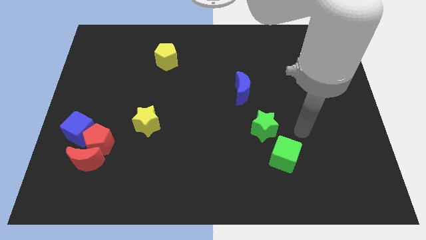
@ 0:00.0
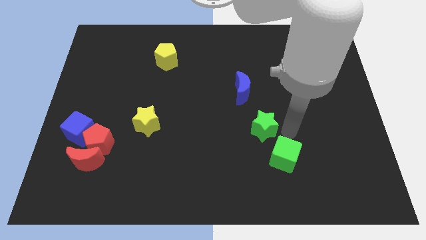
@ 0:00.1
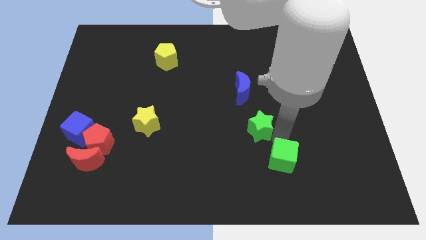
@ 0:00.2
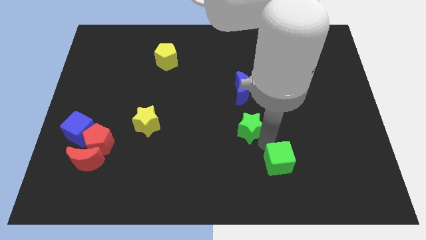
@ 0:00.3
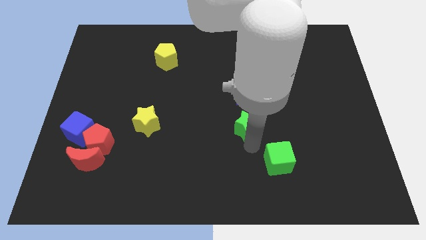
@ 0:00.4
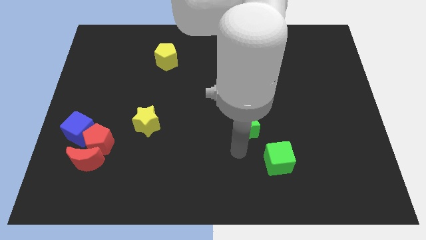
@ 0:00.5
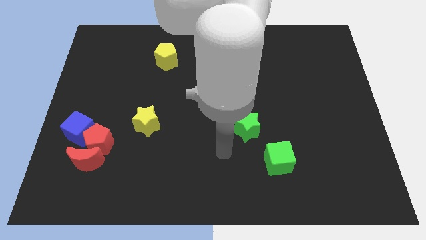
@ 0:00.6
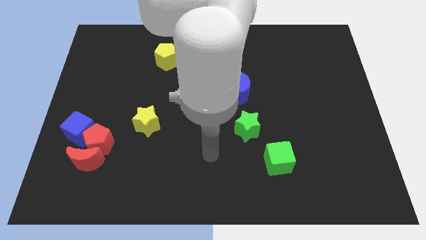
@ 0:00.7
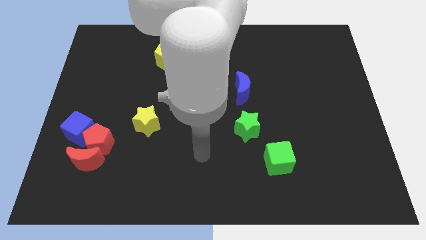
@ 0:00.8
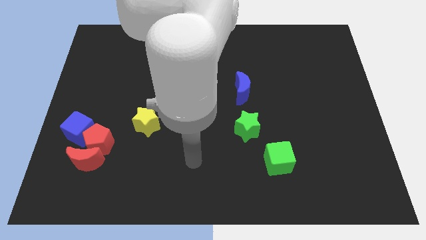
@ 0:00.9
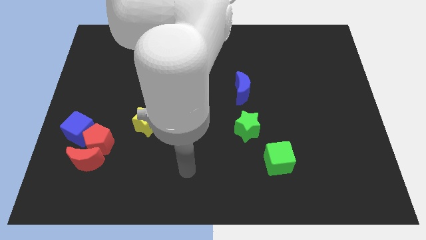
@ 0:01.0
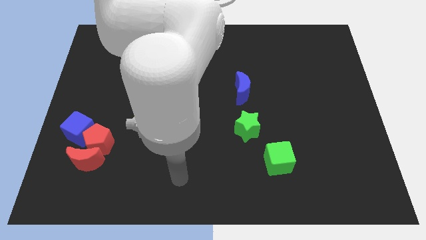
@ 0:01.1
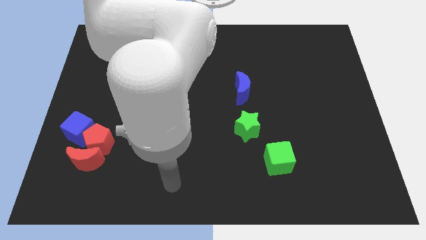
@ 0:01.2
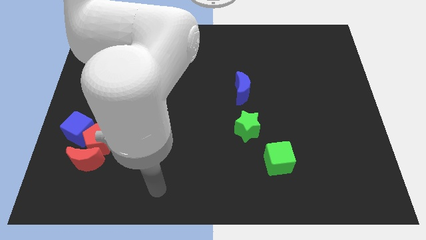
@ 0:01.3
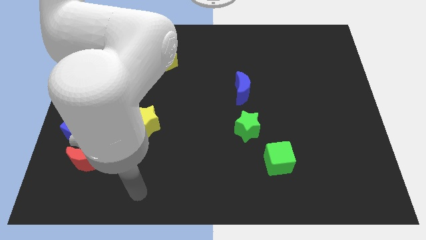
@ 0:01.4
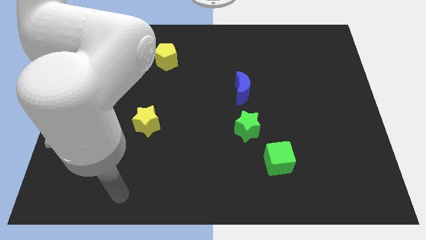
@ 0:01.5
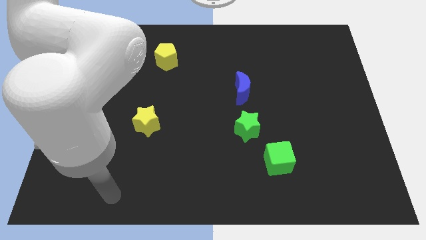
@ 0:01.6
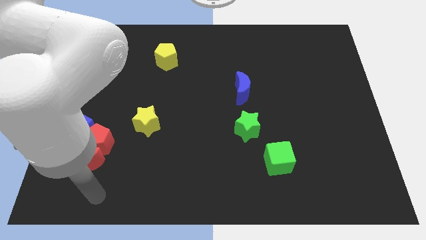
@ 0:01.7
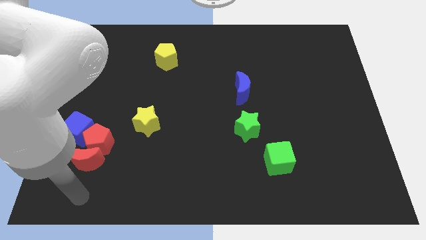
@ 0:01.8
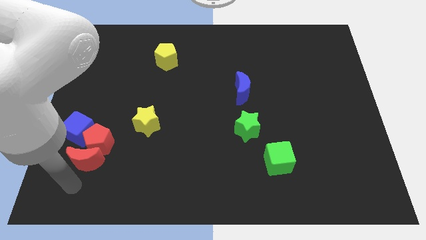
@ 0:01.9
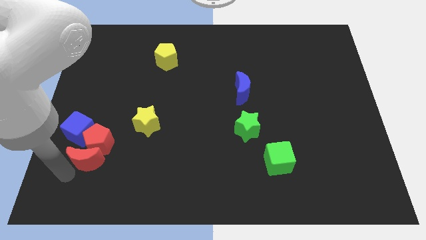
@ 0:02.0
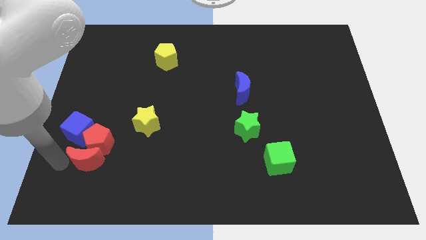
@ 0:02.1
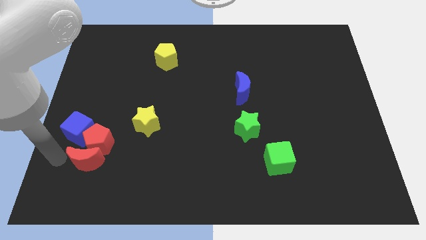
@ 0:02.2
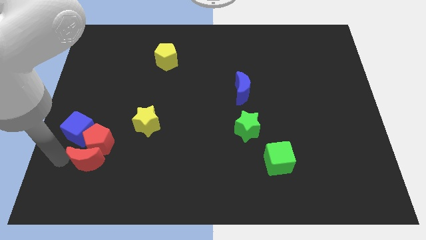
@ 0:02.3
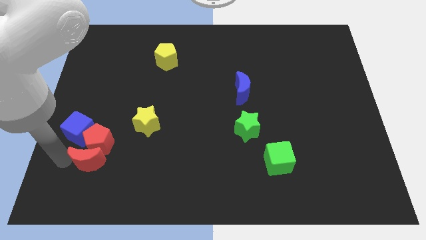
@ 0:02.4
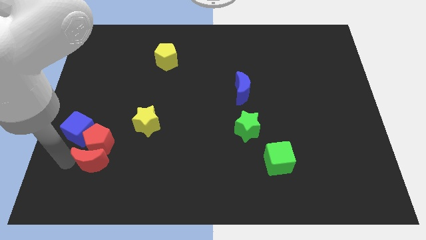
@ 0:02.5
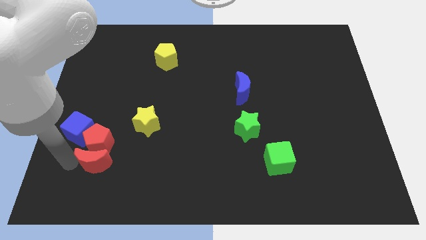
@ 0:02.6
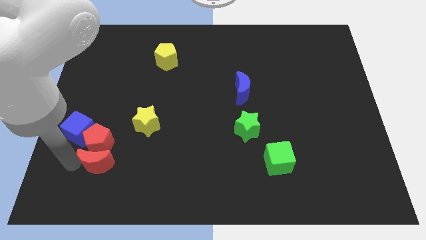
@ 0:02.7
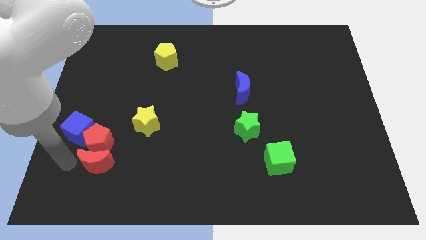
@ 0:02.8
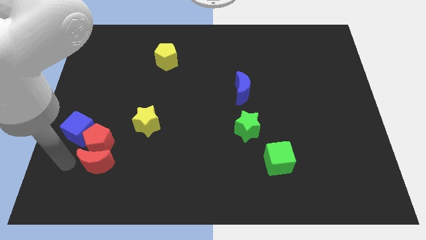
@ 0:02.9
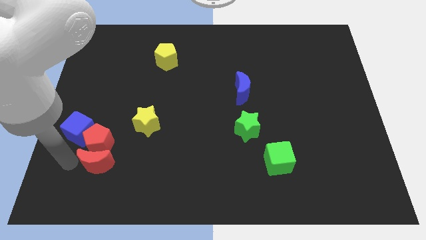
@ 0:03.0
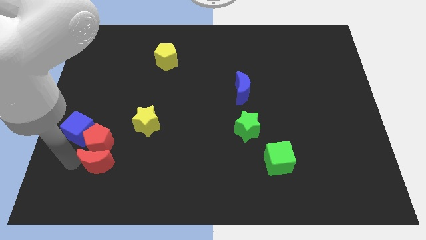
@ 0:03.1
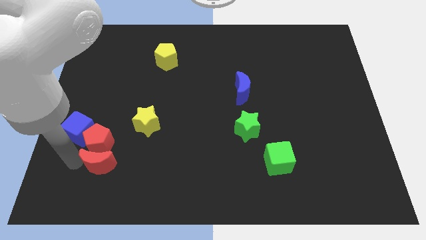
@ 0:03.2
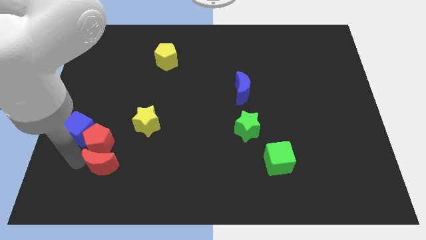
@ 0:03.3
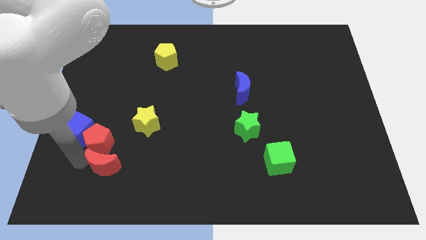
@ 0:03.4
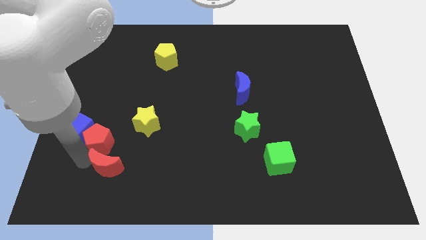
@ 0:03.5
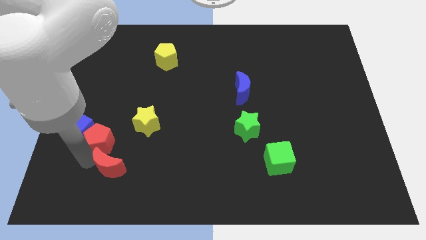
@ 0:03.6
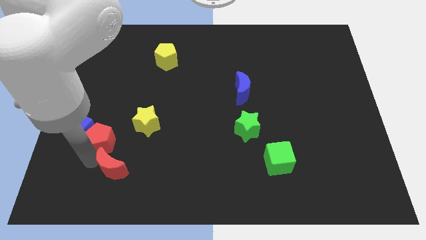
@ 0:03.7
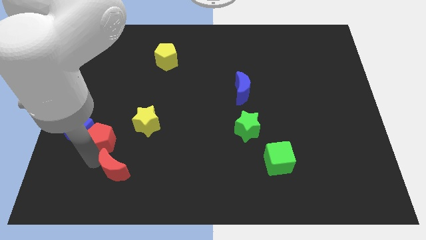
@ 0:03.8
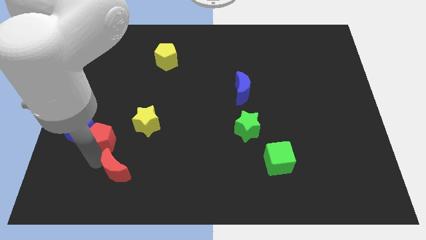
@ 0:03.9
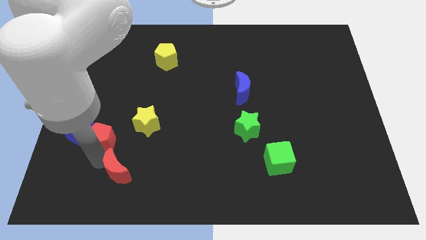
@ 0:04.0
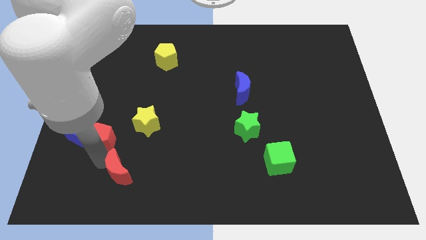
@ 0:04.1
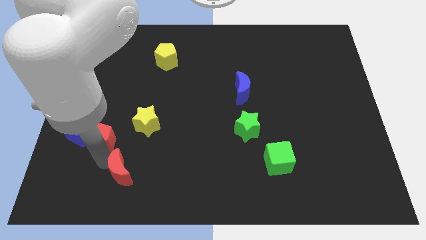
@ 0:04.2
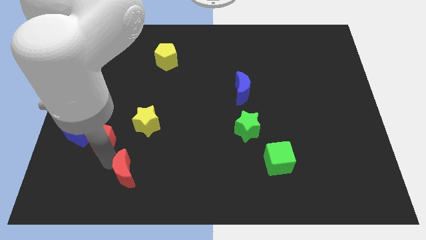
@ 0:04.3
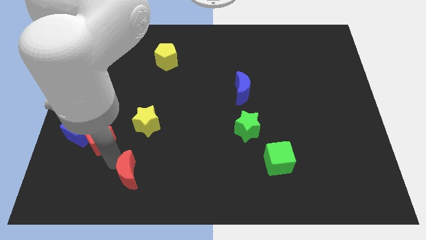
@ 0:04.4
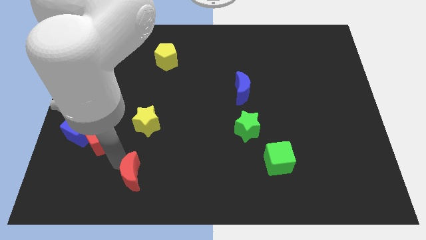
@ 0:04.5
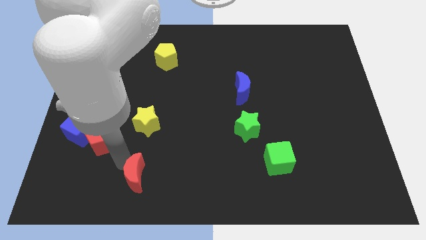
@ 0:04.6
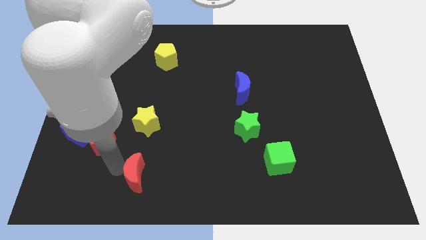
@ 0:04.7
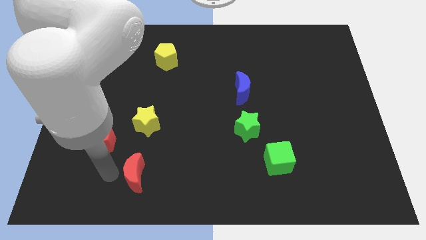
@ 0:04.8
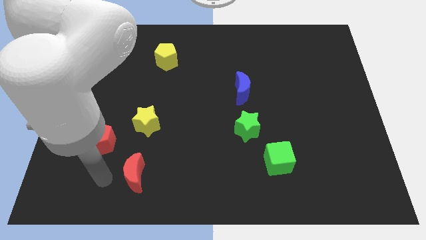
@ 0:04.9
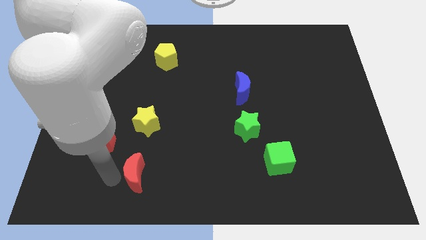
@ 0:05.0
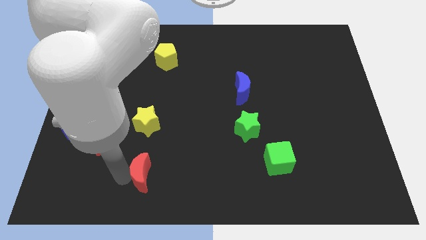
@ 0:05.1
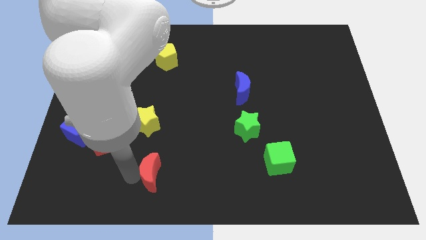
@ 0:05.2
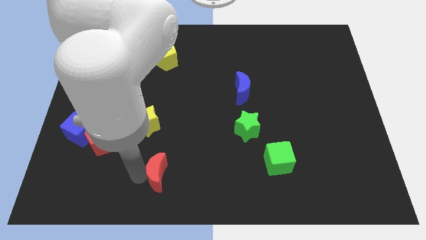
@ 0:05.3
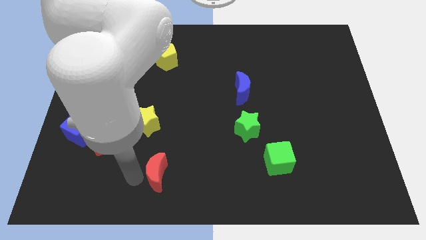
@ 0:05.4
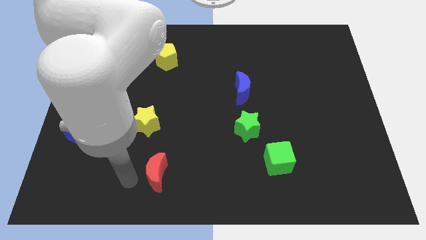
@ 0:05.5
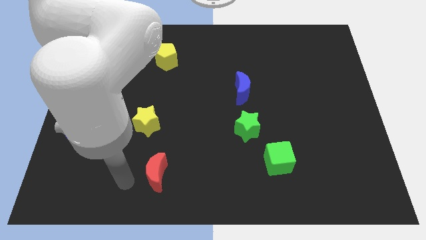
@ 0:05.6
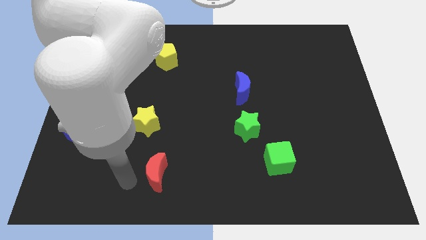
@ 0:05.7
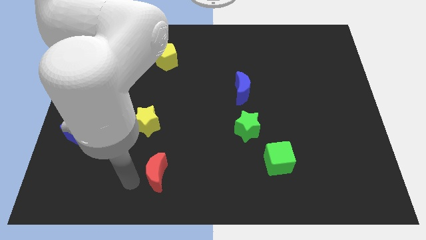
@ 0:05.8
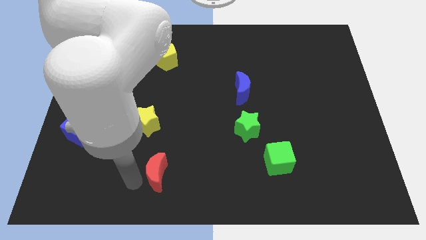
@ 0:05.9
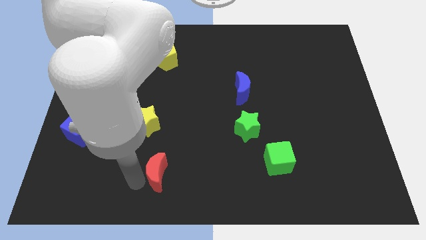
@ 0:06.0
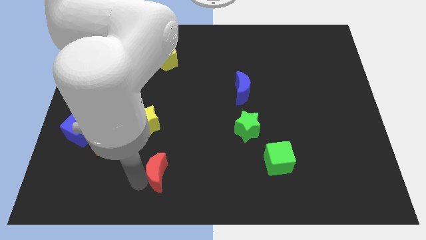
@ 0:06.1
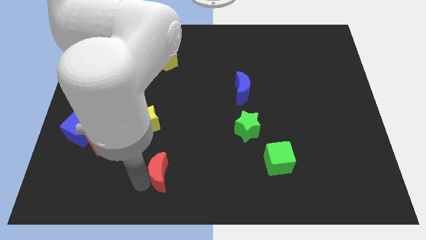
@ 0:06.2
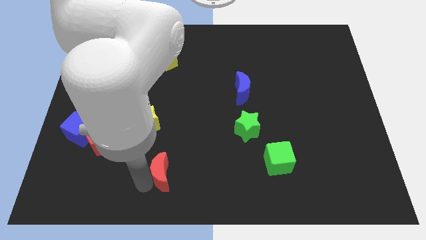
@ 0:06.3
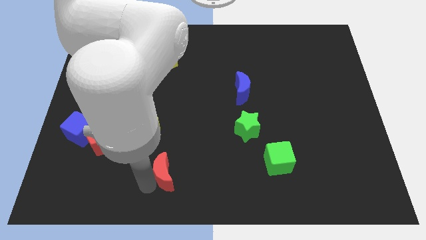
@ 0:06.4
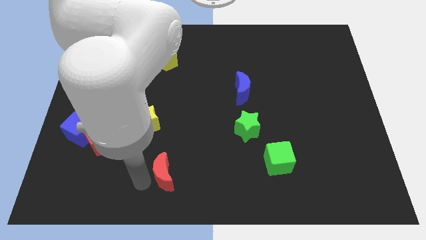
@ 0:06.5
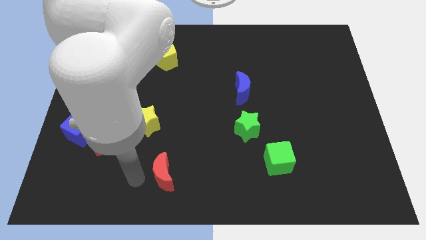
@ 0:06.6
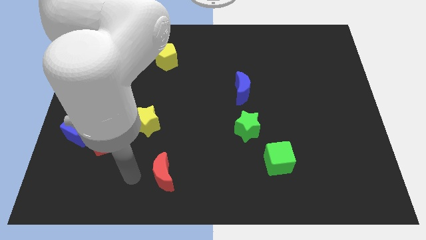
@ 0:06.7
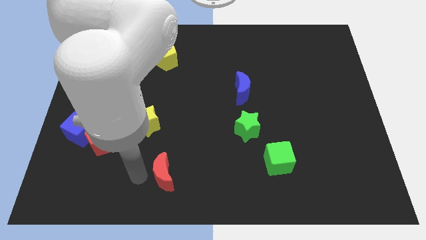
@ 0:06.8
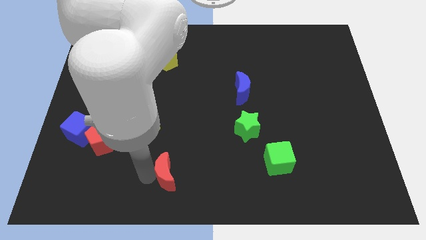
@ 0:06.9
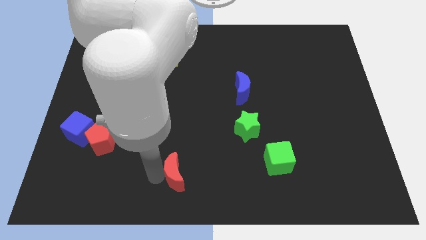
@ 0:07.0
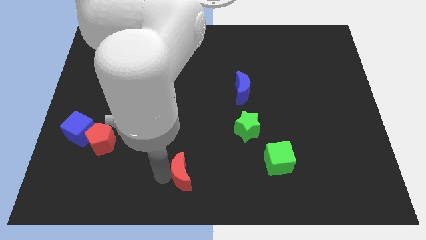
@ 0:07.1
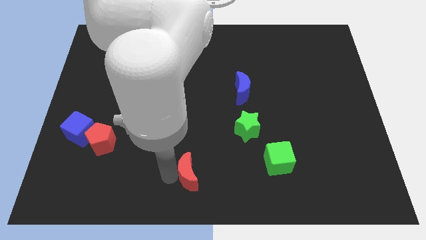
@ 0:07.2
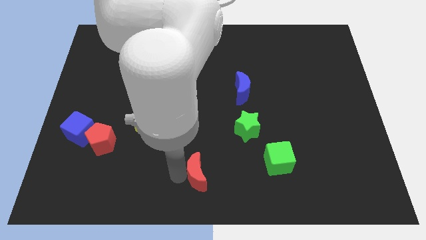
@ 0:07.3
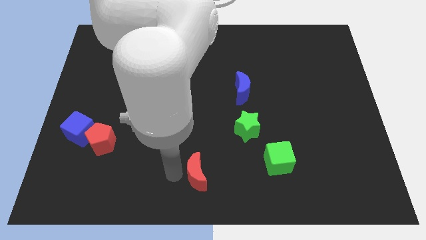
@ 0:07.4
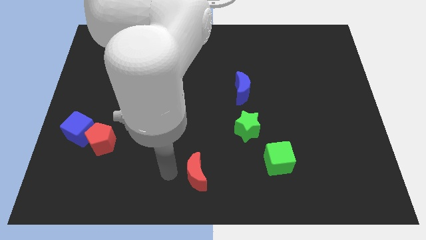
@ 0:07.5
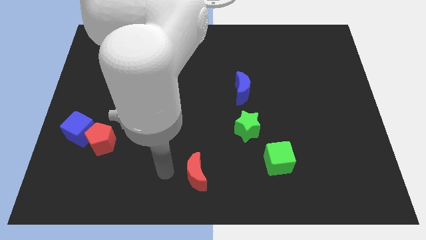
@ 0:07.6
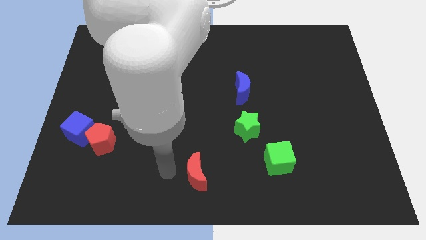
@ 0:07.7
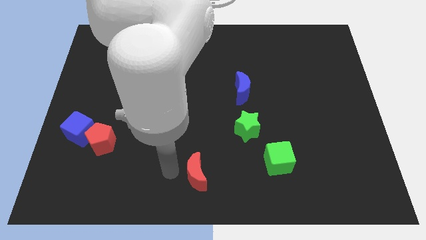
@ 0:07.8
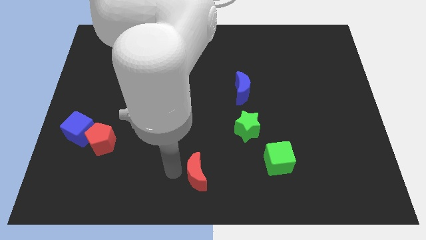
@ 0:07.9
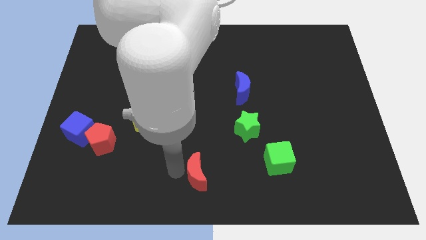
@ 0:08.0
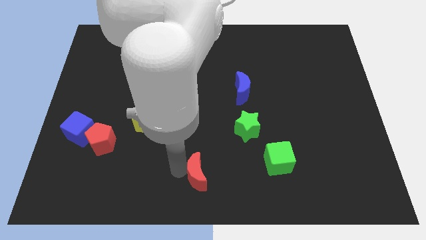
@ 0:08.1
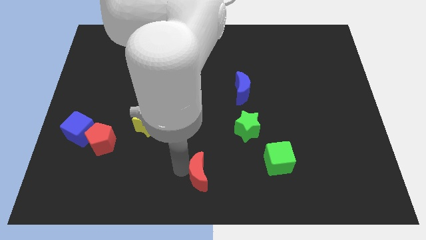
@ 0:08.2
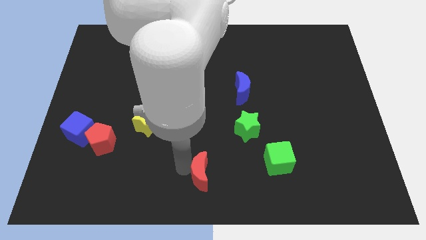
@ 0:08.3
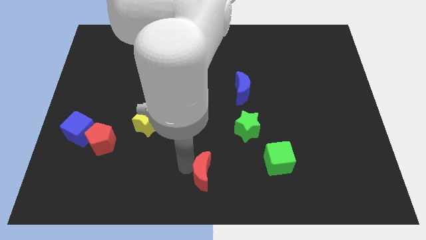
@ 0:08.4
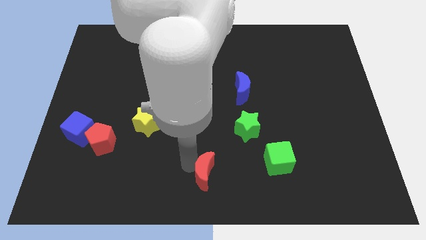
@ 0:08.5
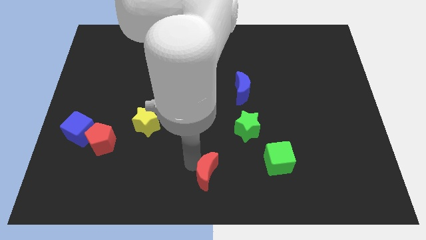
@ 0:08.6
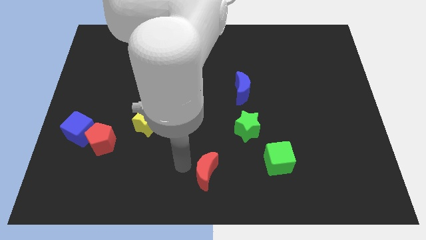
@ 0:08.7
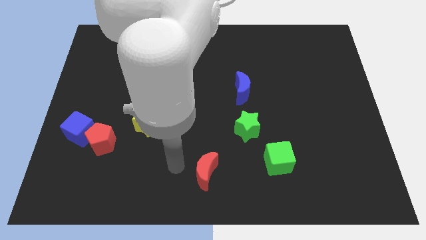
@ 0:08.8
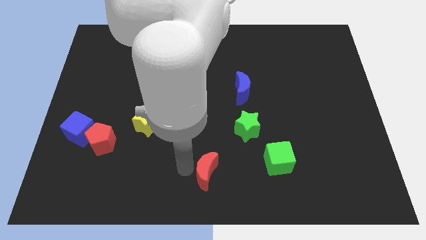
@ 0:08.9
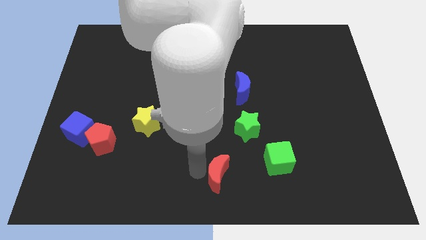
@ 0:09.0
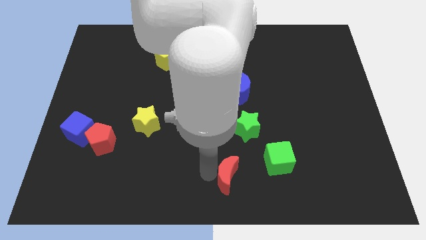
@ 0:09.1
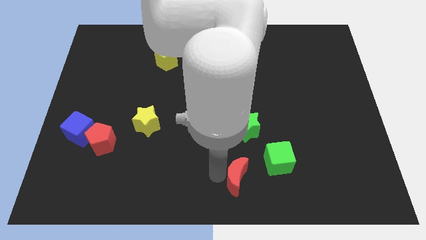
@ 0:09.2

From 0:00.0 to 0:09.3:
move the red moon diagonally down and to the left of the green cube
